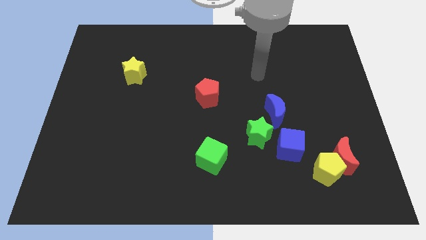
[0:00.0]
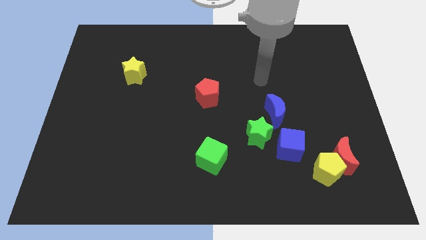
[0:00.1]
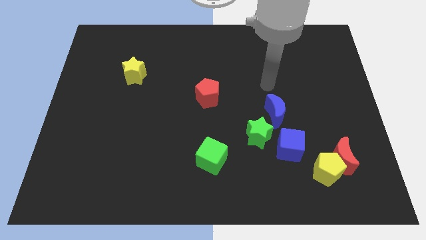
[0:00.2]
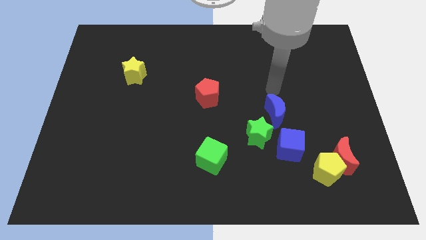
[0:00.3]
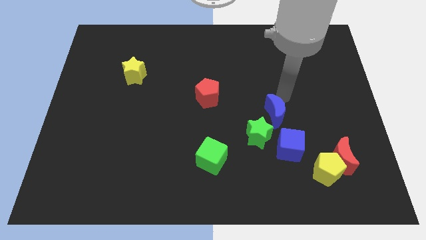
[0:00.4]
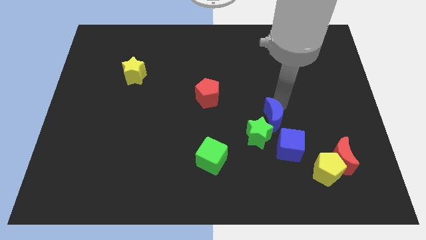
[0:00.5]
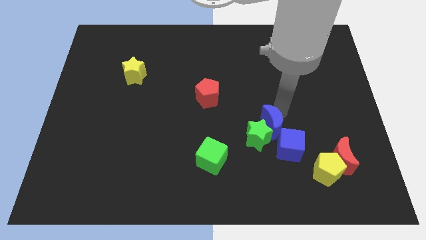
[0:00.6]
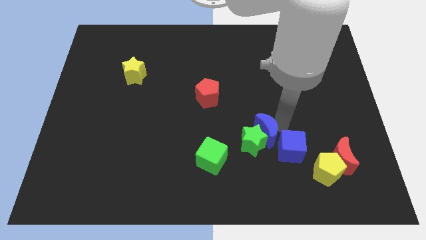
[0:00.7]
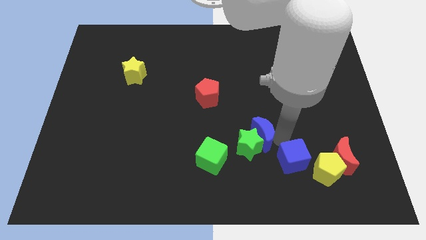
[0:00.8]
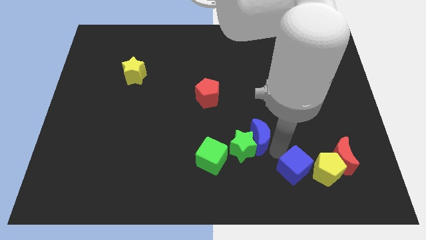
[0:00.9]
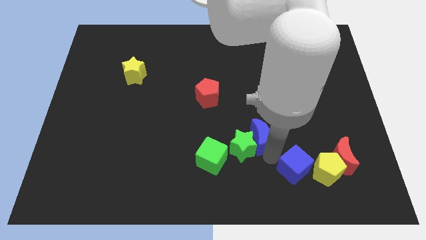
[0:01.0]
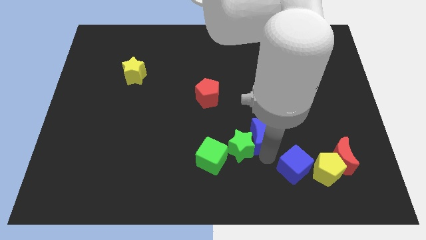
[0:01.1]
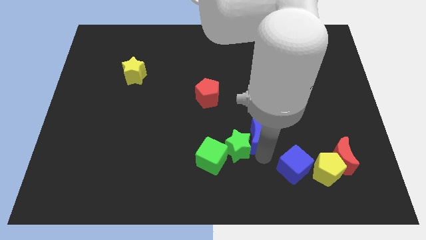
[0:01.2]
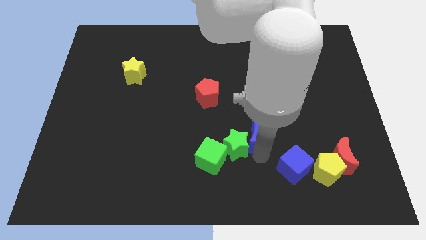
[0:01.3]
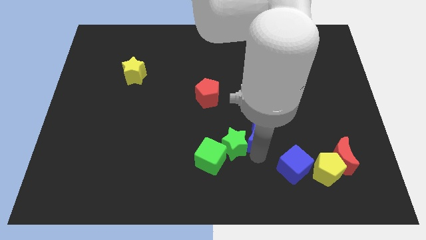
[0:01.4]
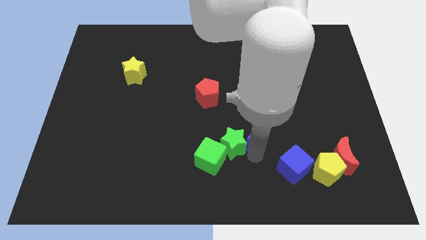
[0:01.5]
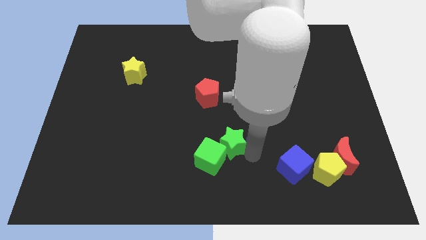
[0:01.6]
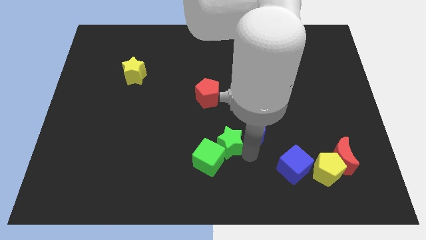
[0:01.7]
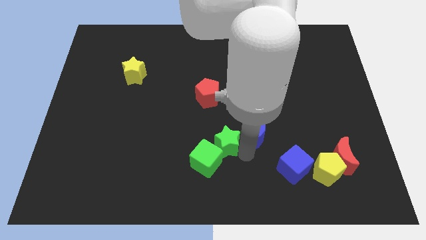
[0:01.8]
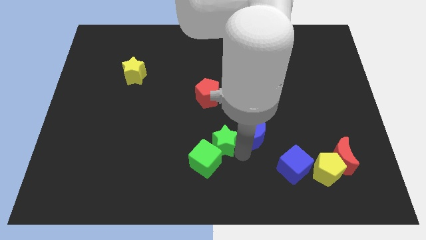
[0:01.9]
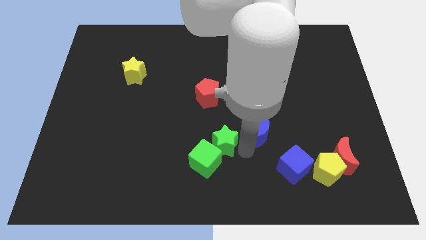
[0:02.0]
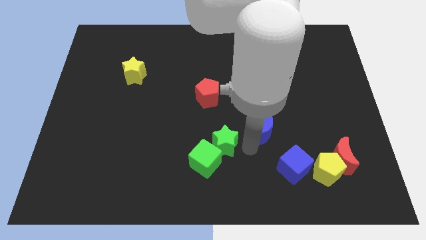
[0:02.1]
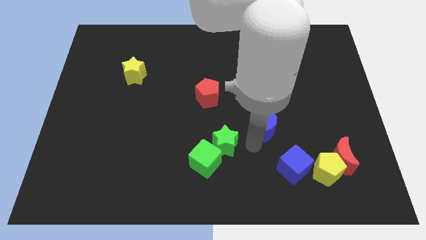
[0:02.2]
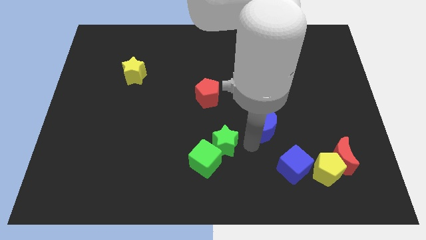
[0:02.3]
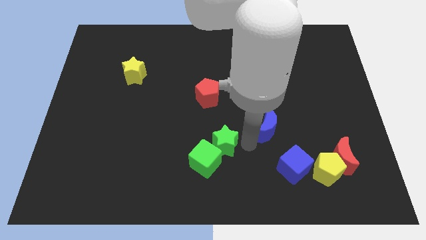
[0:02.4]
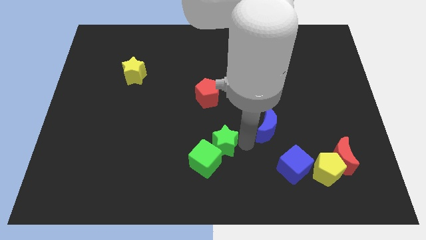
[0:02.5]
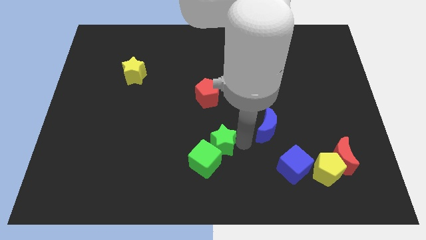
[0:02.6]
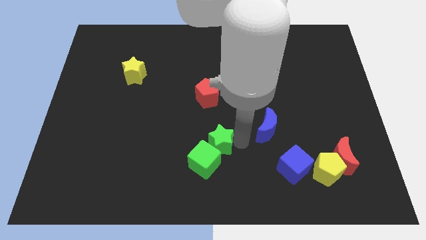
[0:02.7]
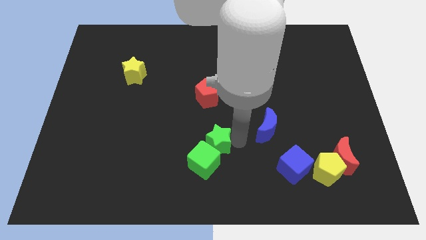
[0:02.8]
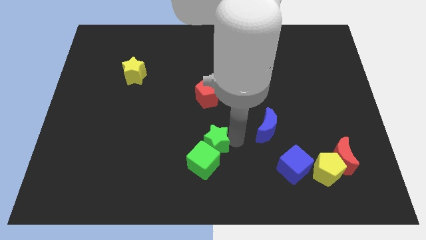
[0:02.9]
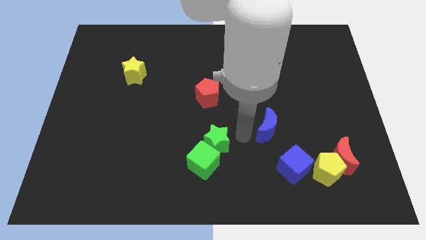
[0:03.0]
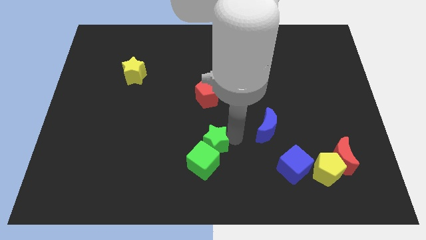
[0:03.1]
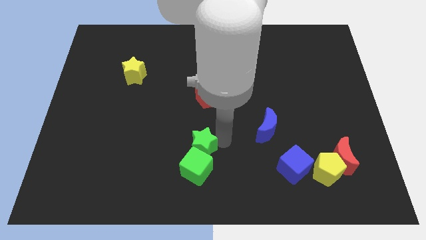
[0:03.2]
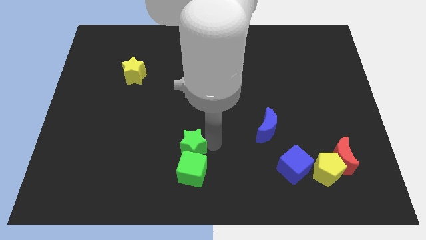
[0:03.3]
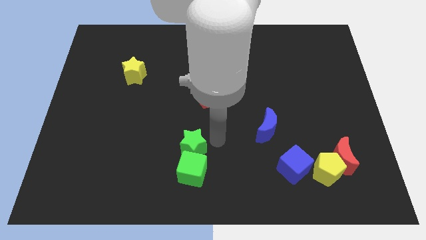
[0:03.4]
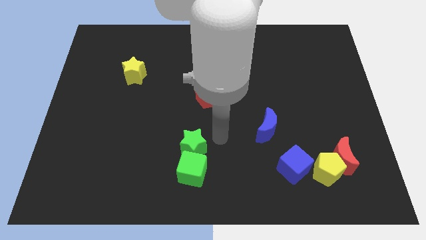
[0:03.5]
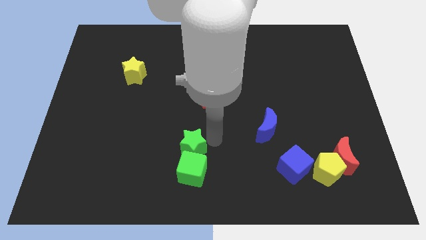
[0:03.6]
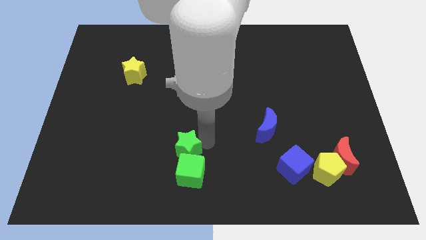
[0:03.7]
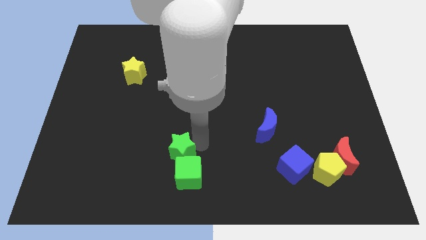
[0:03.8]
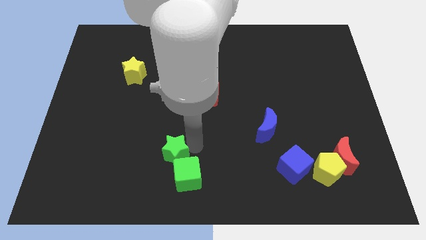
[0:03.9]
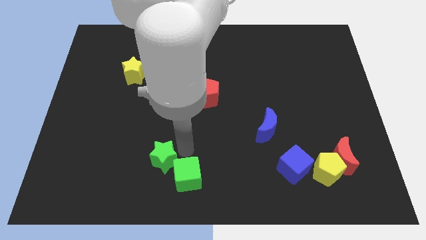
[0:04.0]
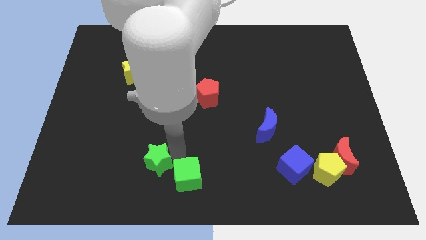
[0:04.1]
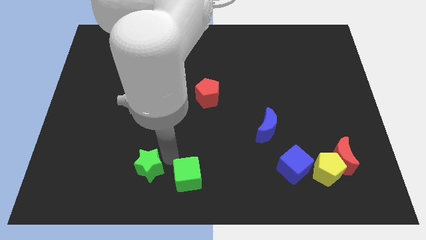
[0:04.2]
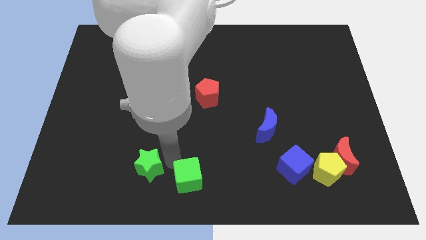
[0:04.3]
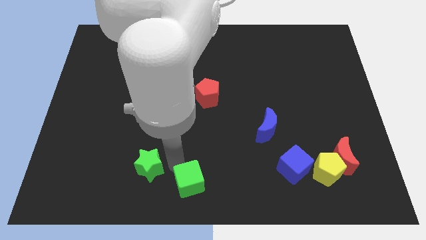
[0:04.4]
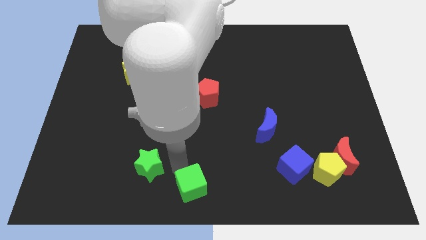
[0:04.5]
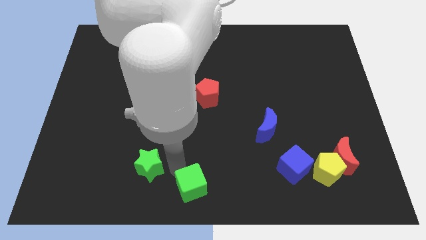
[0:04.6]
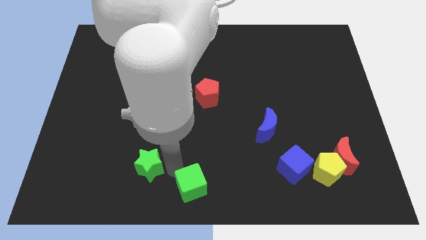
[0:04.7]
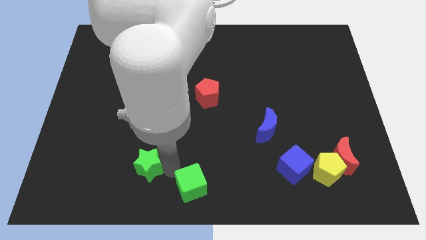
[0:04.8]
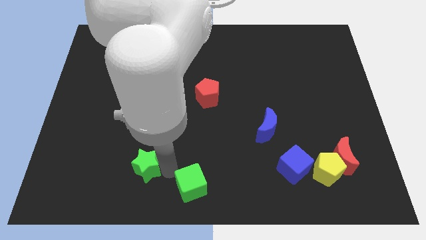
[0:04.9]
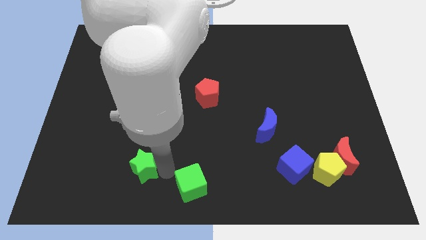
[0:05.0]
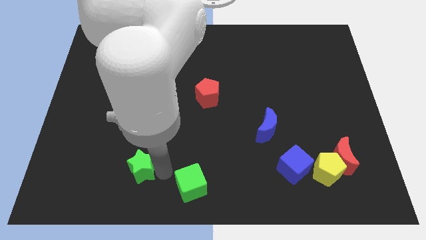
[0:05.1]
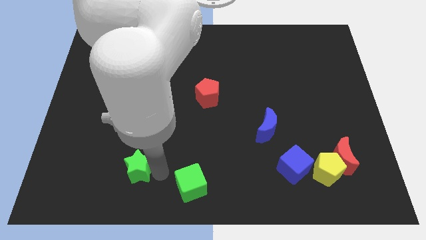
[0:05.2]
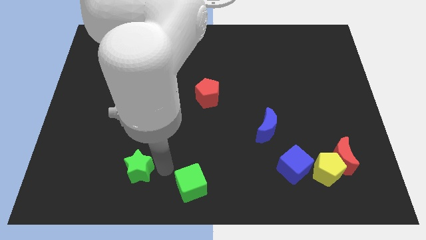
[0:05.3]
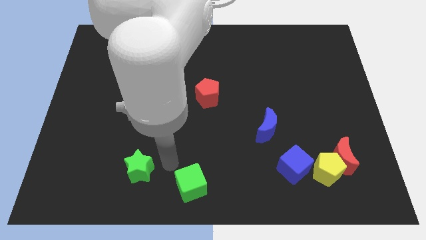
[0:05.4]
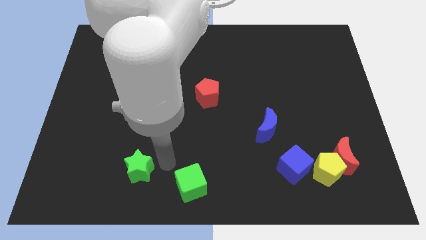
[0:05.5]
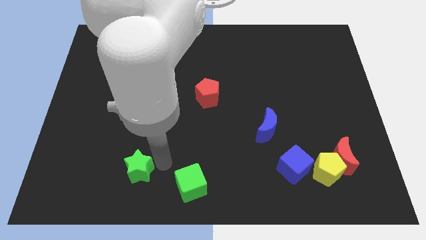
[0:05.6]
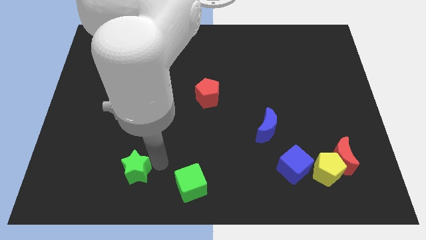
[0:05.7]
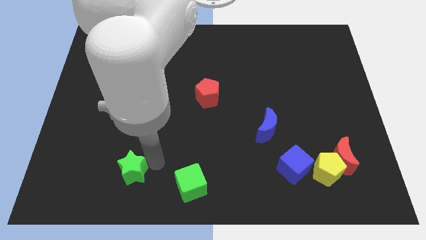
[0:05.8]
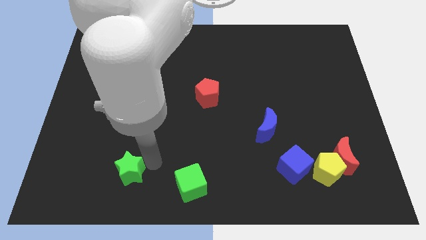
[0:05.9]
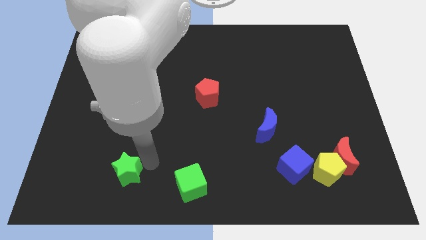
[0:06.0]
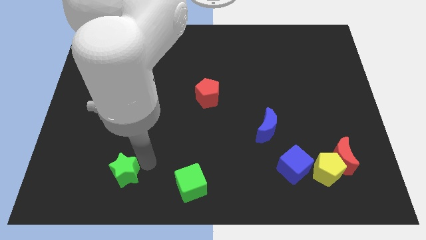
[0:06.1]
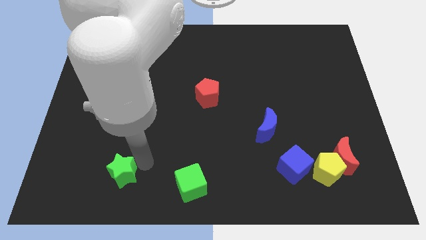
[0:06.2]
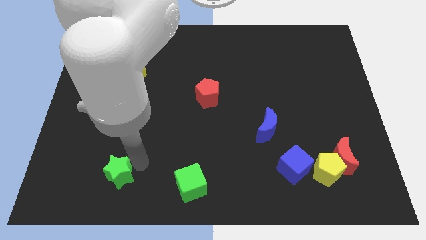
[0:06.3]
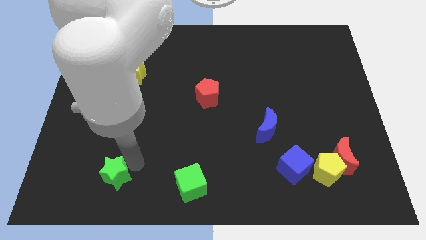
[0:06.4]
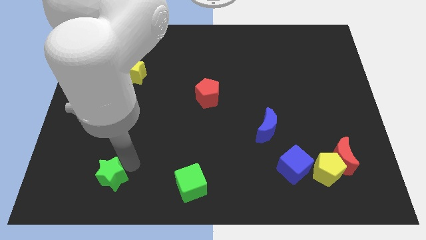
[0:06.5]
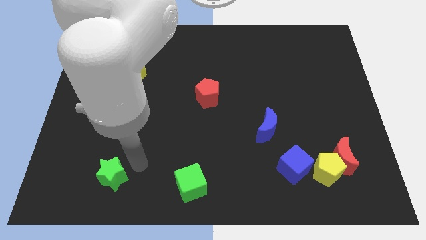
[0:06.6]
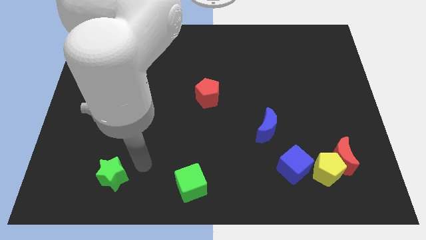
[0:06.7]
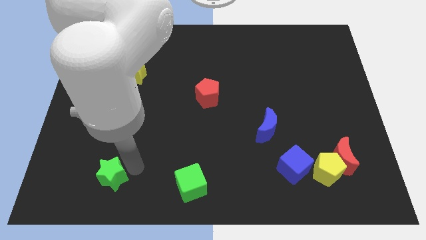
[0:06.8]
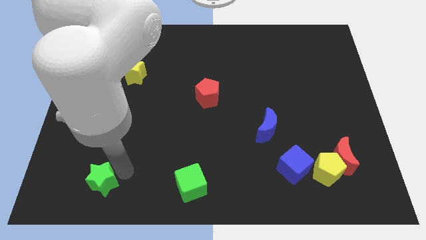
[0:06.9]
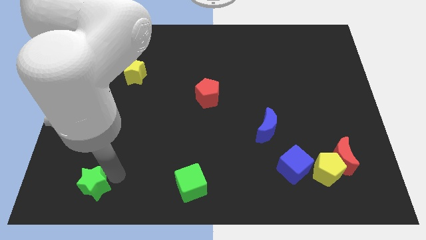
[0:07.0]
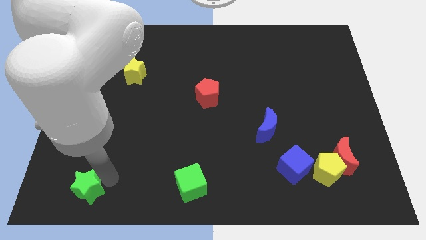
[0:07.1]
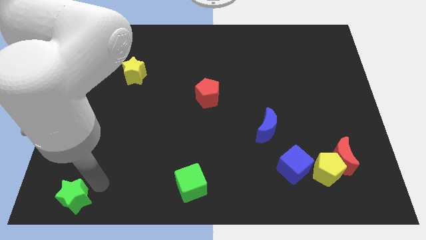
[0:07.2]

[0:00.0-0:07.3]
put the green star to the bottom left corner
